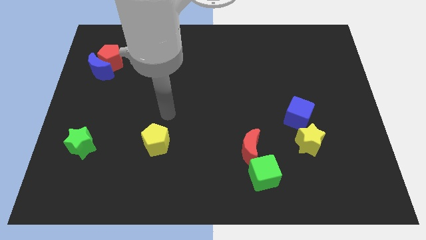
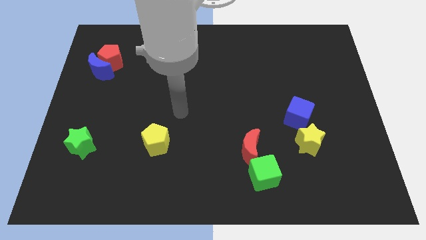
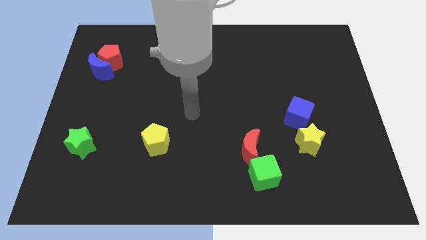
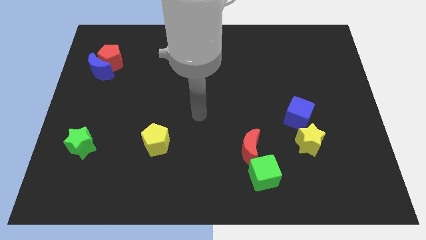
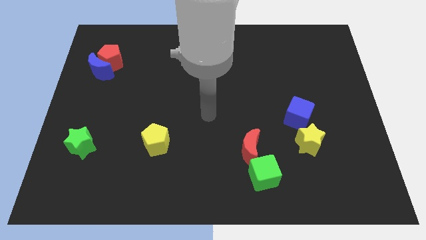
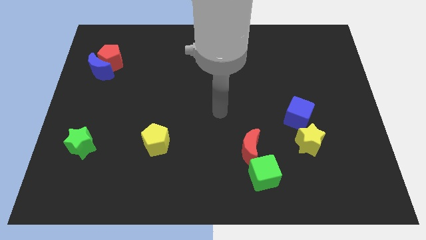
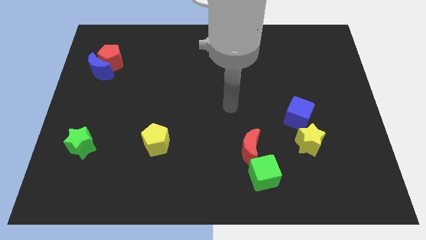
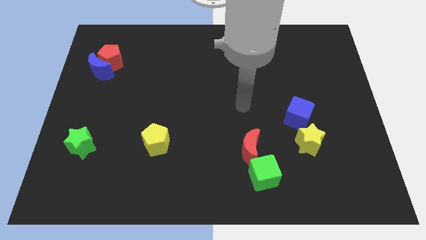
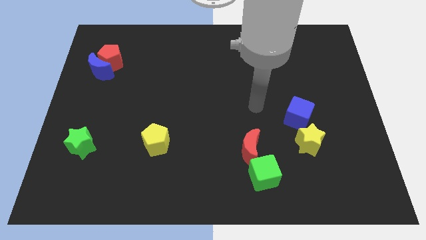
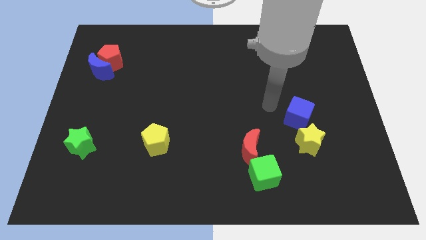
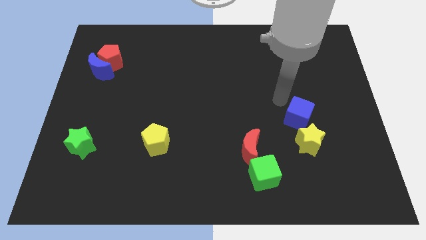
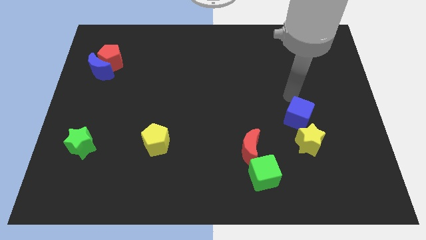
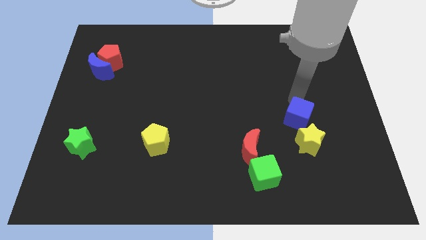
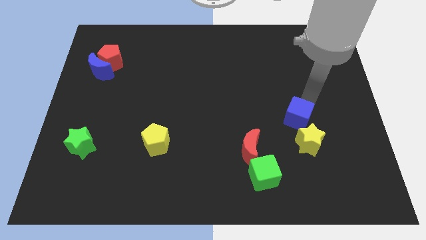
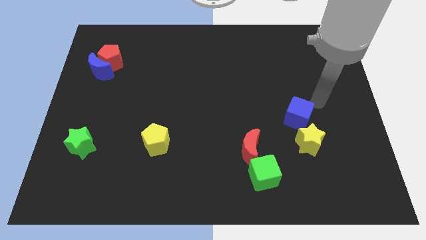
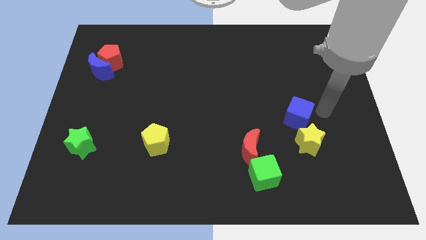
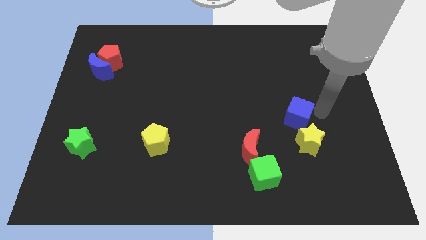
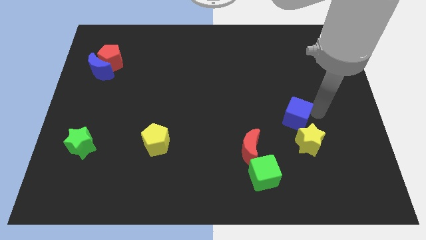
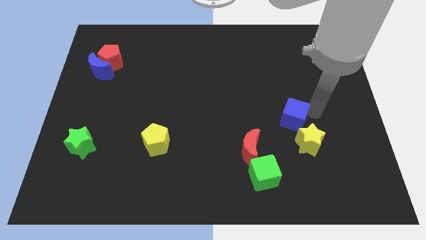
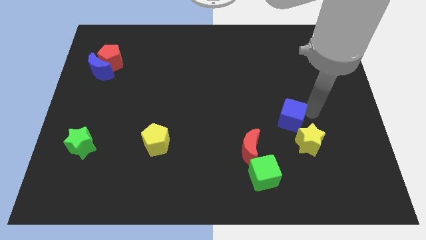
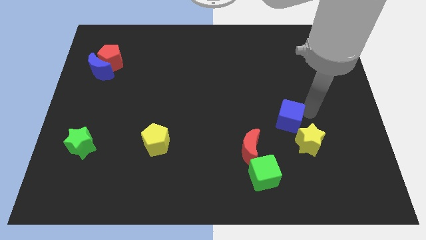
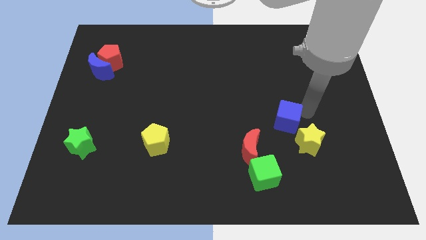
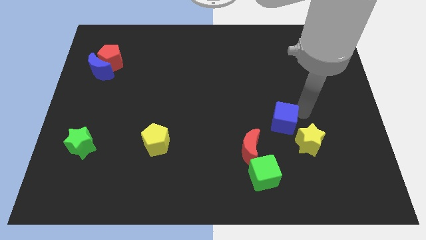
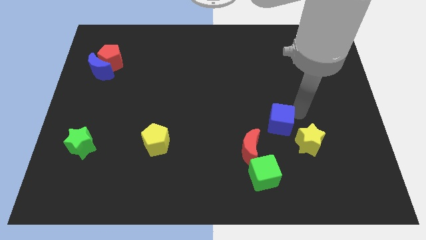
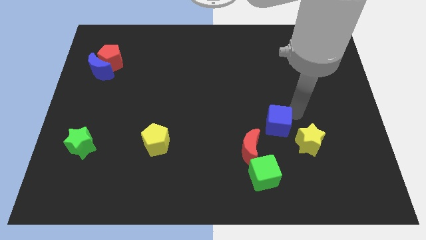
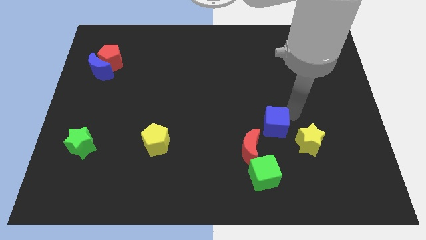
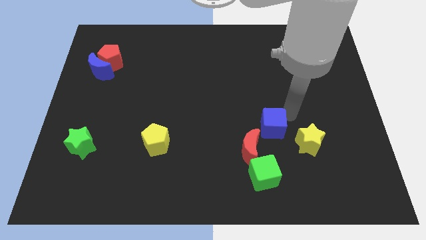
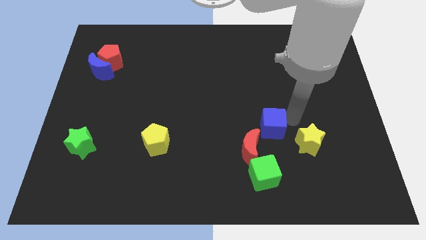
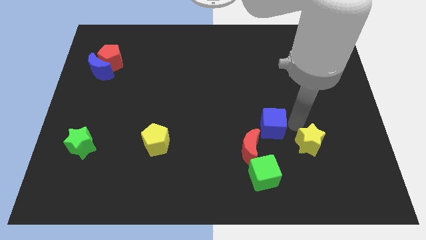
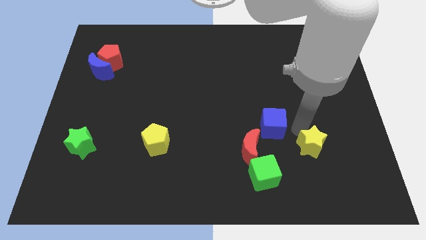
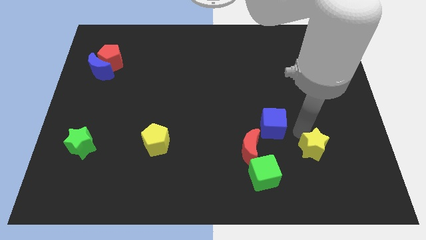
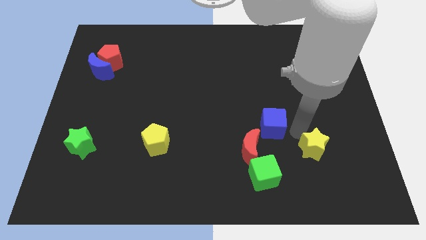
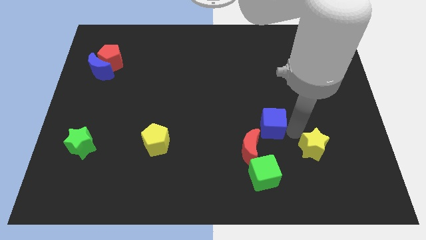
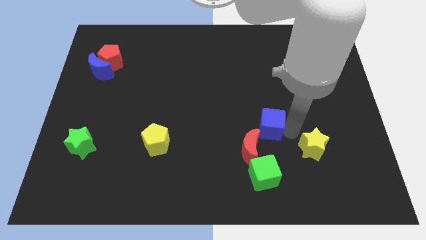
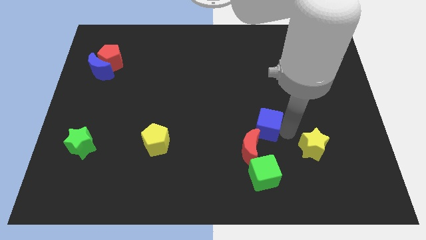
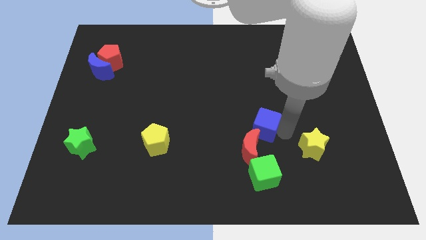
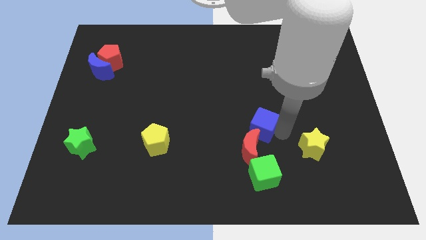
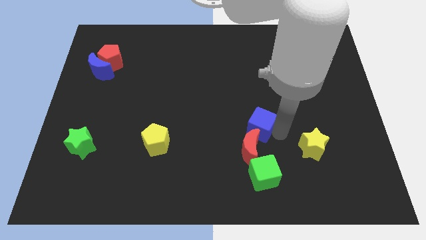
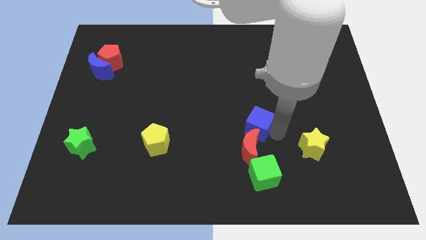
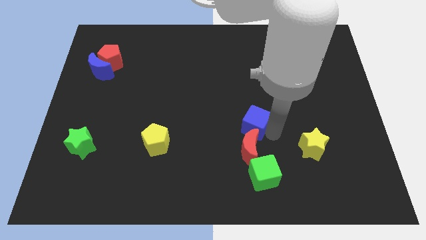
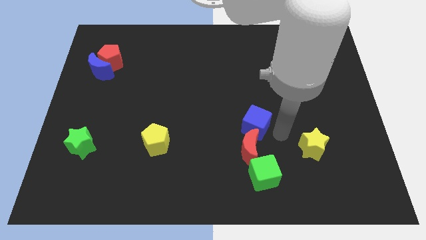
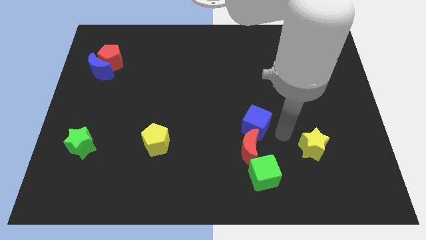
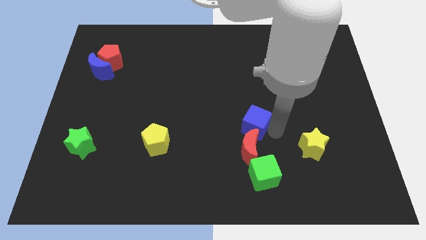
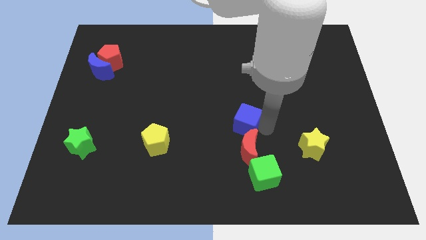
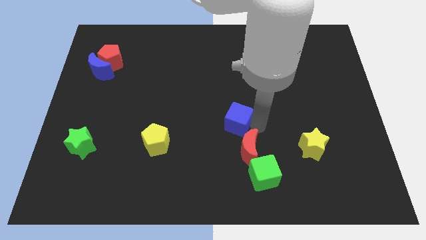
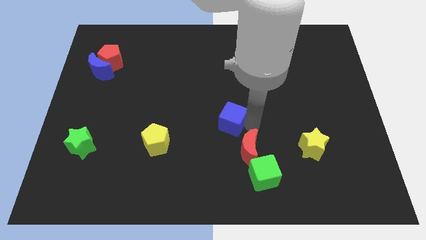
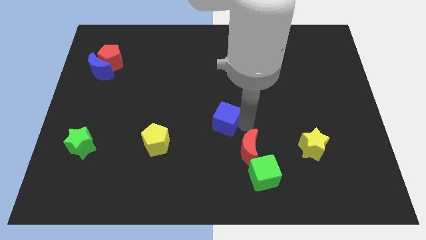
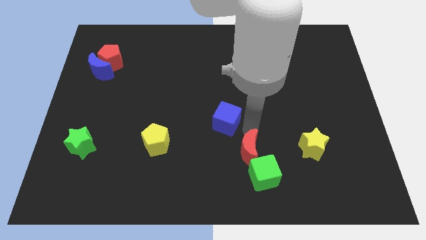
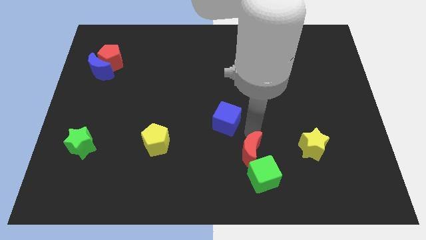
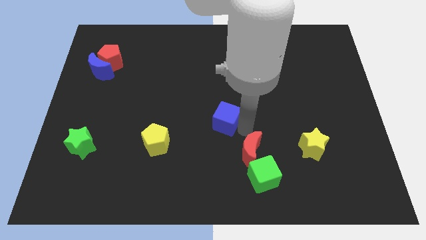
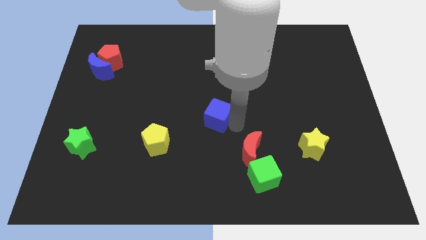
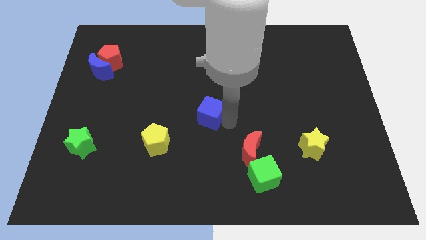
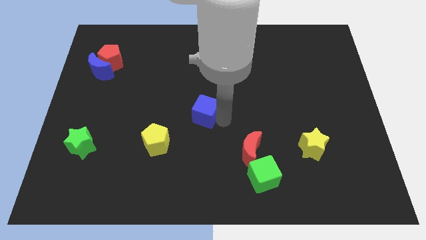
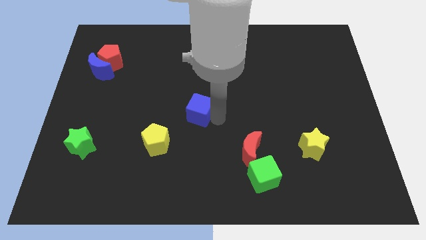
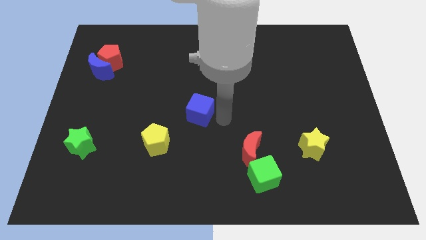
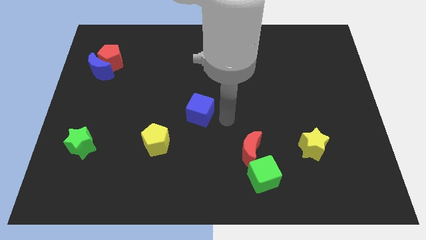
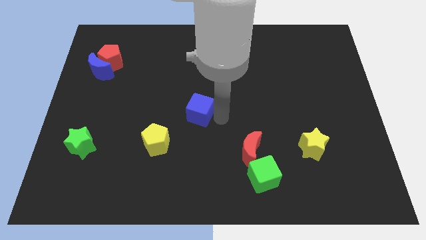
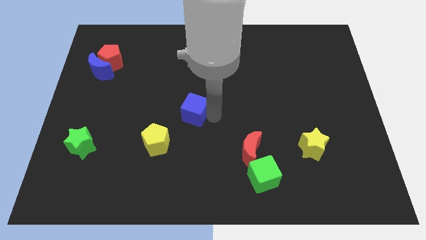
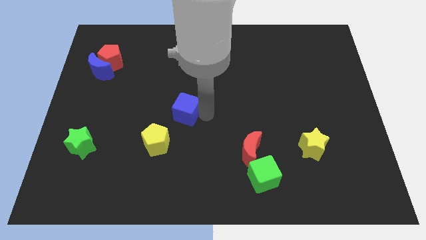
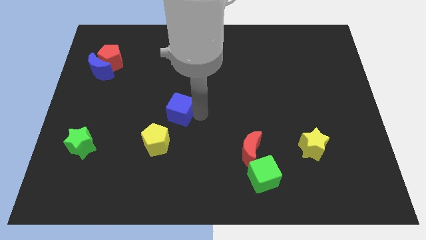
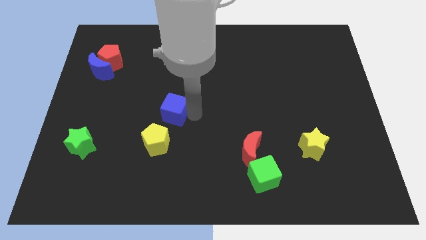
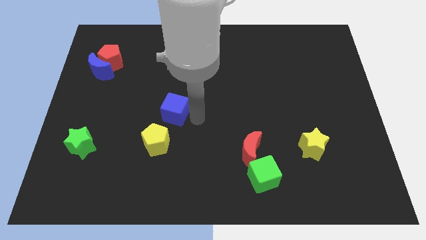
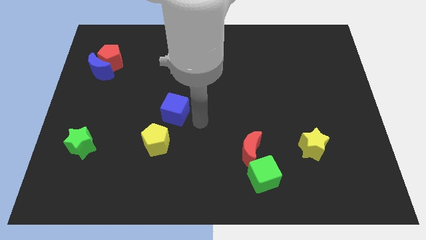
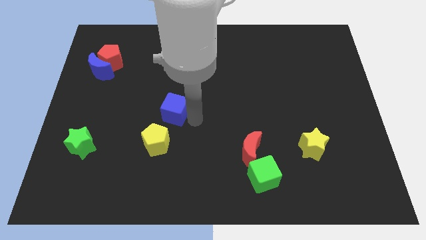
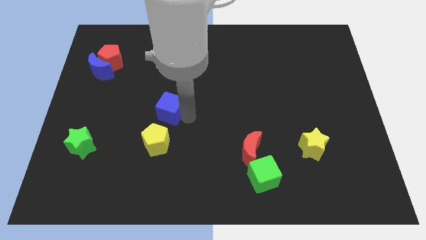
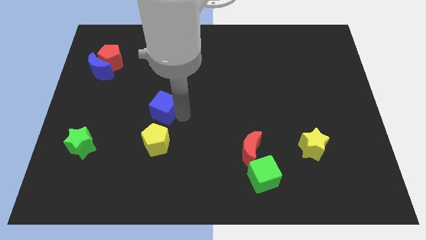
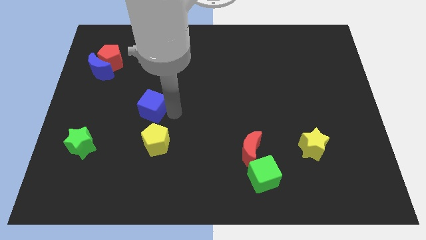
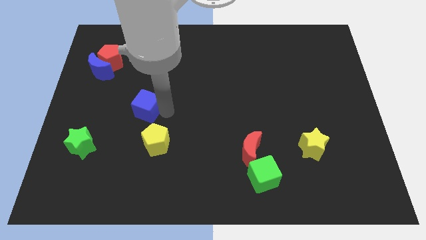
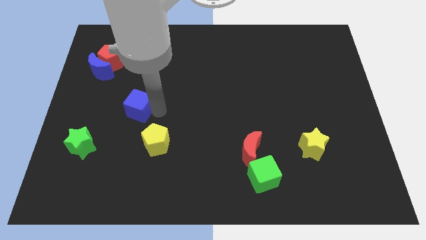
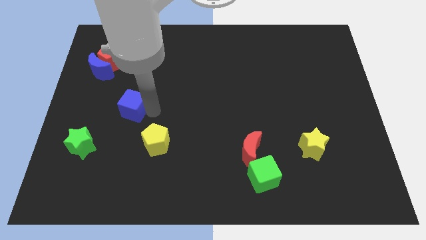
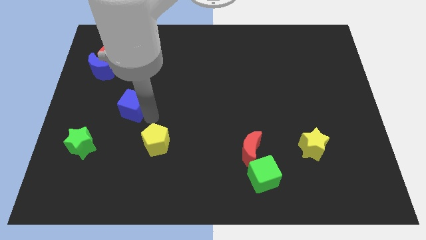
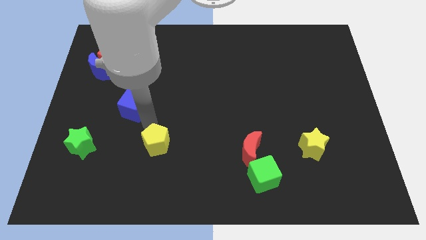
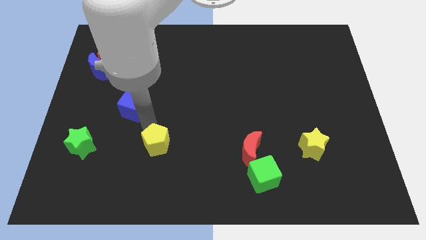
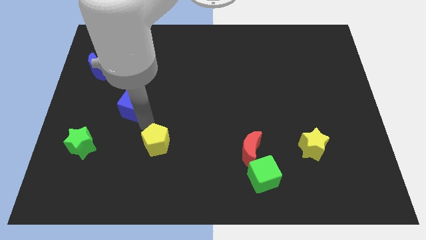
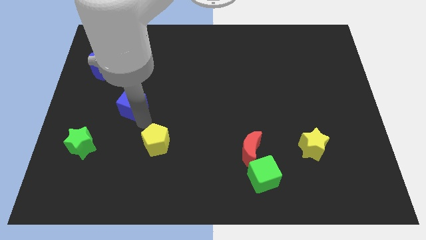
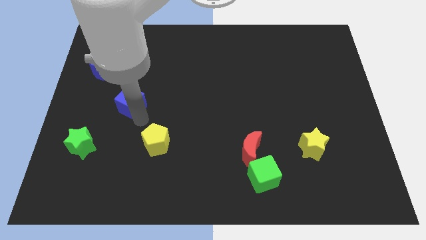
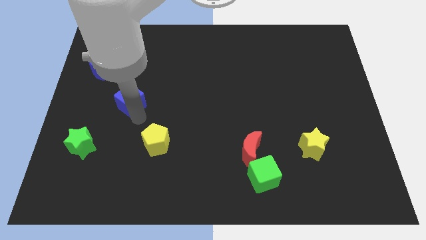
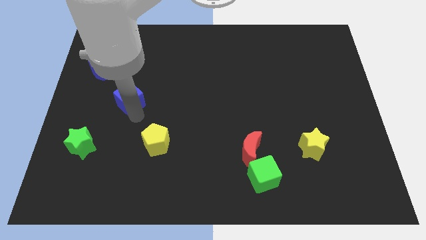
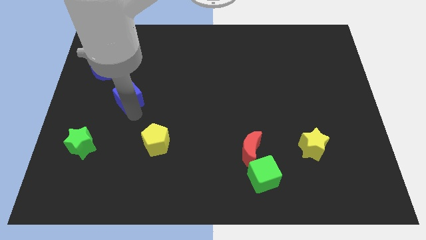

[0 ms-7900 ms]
slide the blue cube diagonally down and to the right of the blue moon
